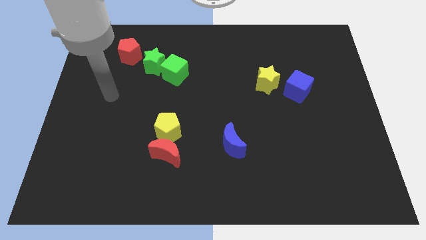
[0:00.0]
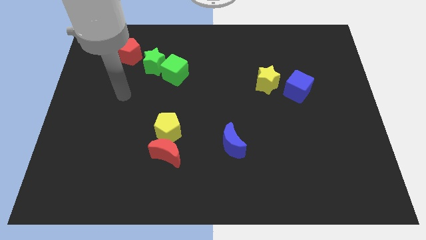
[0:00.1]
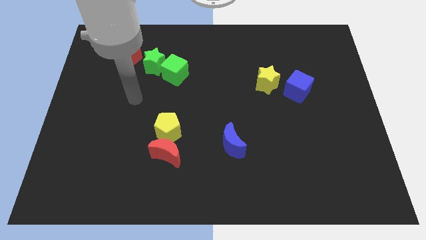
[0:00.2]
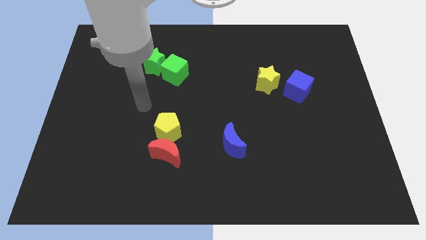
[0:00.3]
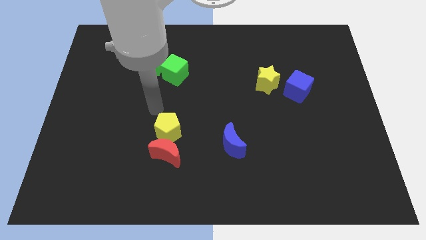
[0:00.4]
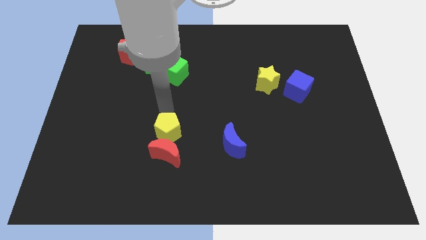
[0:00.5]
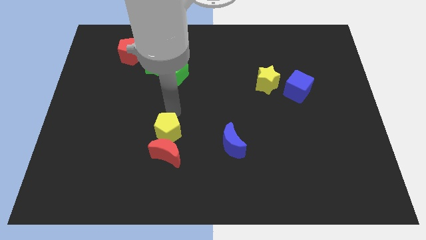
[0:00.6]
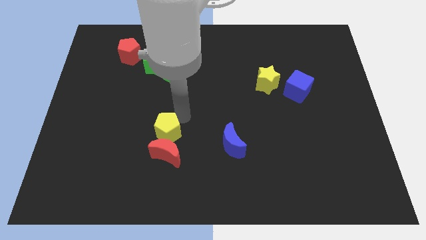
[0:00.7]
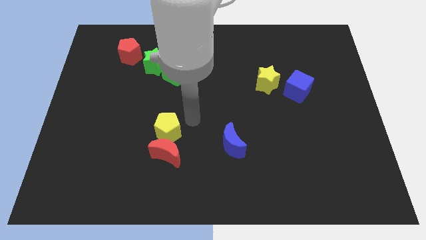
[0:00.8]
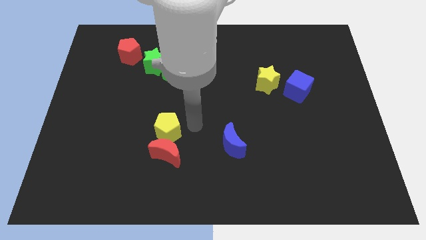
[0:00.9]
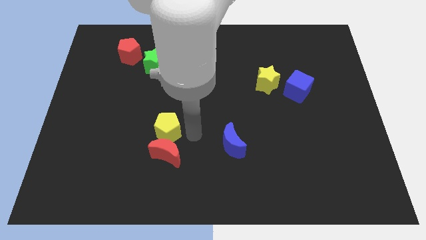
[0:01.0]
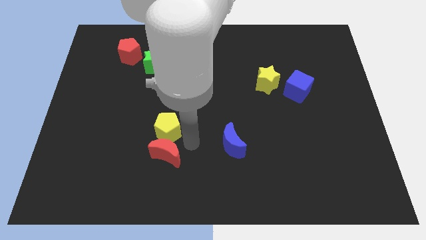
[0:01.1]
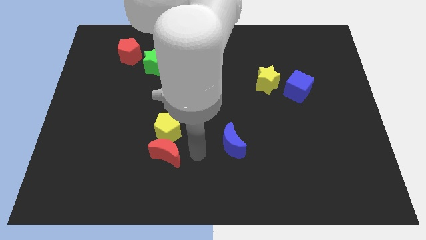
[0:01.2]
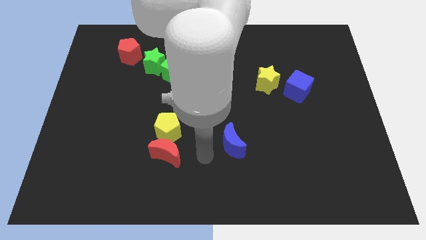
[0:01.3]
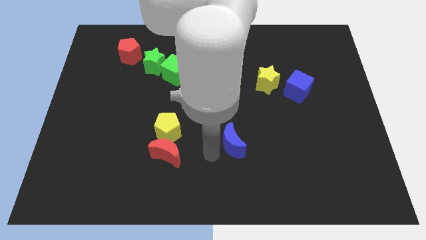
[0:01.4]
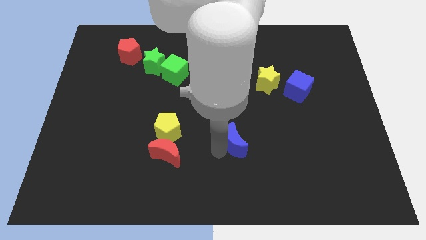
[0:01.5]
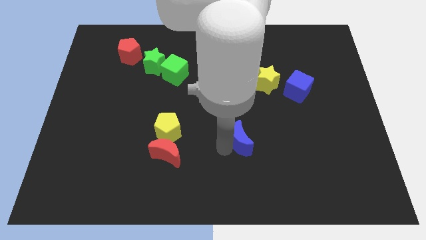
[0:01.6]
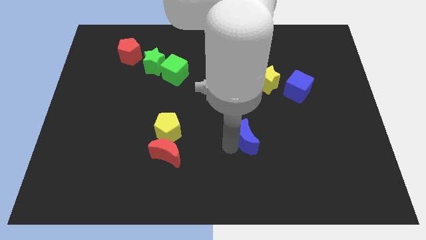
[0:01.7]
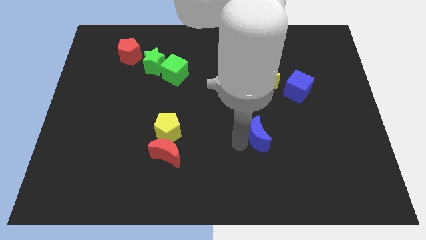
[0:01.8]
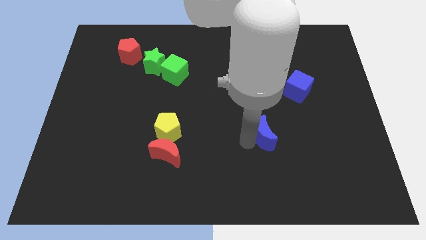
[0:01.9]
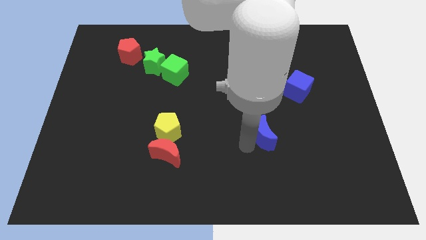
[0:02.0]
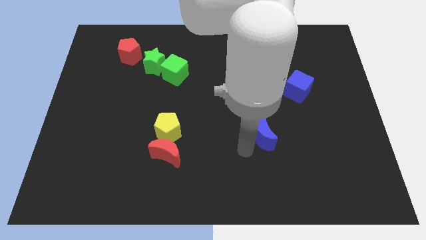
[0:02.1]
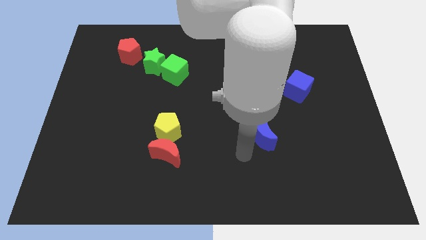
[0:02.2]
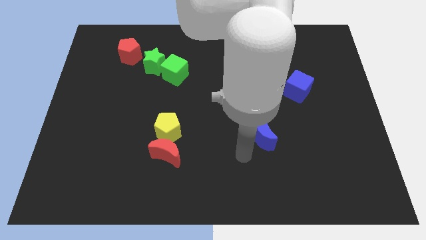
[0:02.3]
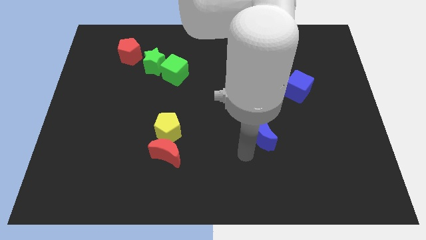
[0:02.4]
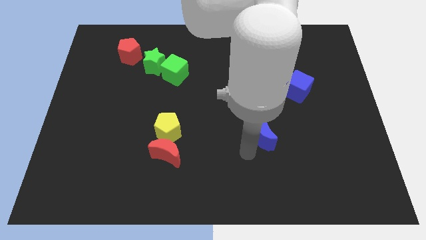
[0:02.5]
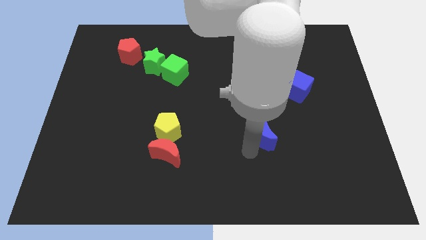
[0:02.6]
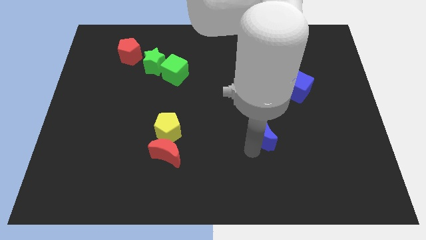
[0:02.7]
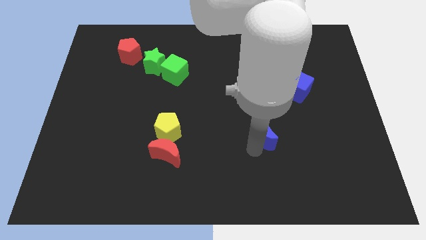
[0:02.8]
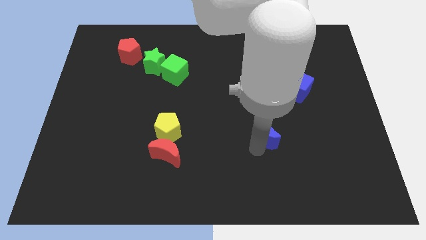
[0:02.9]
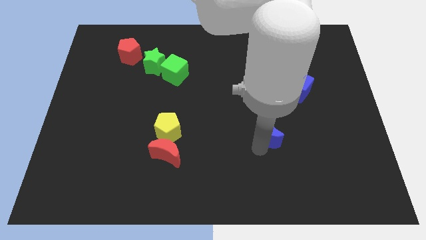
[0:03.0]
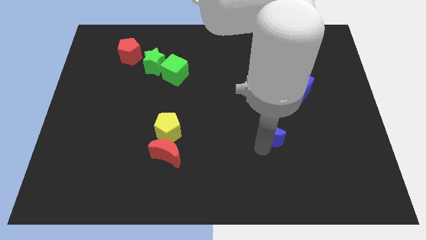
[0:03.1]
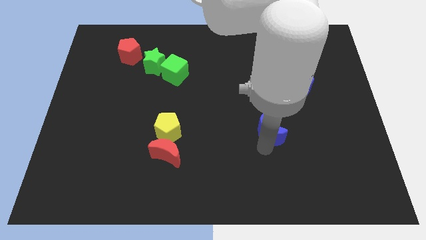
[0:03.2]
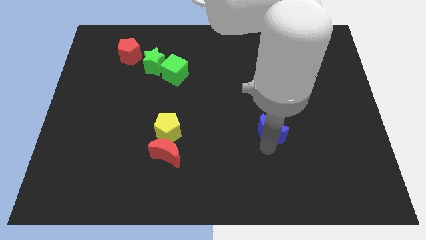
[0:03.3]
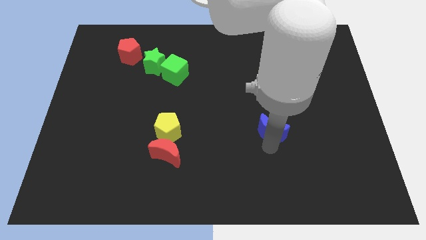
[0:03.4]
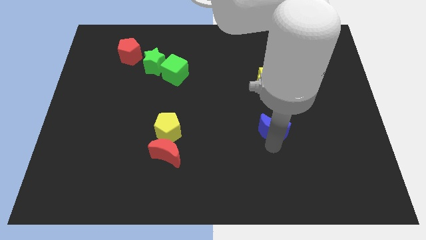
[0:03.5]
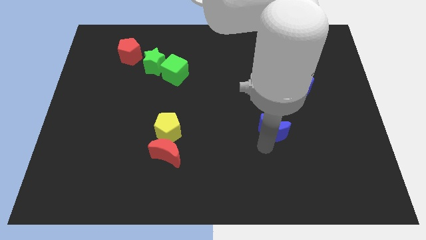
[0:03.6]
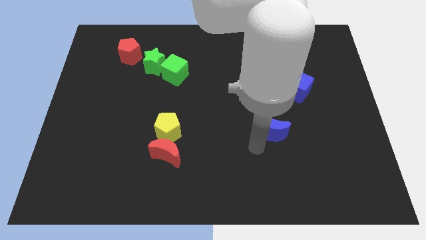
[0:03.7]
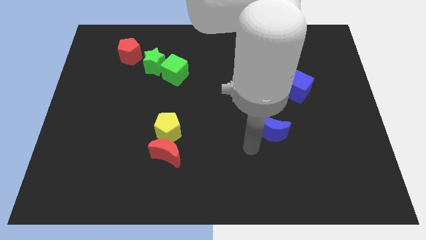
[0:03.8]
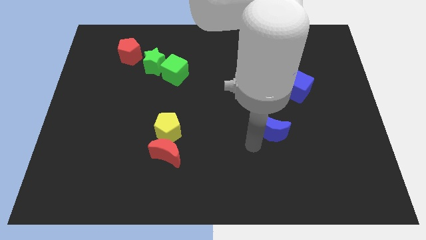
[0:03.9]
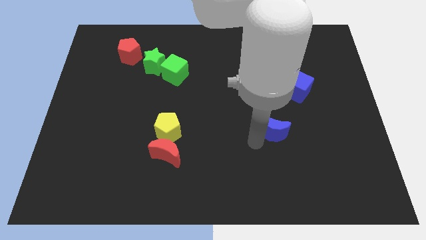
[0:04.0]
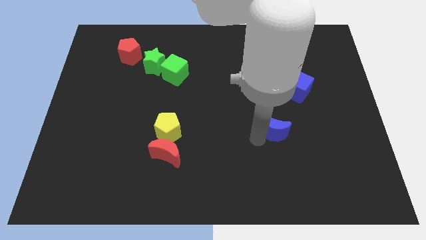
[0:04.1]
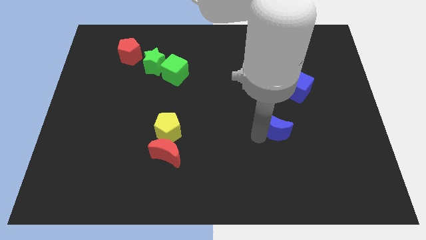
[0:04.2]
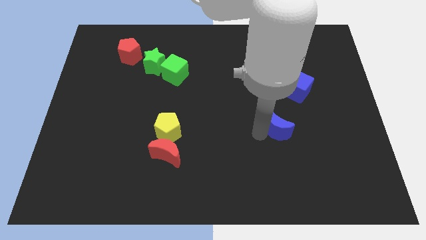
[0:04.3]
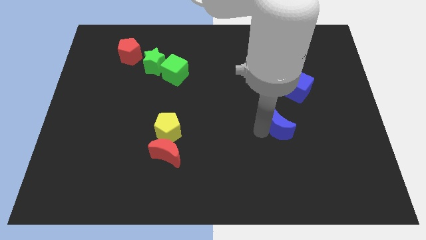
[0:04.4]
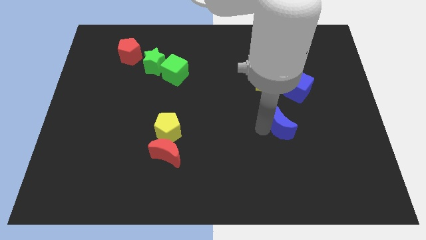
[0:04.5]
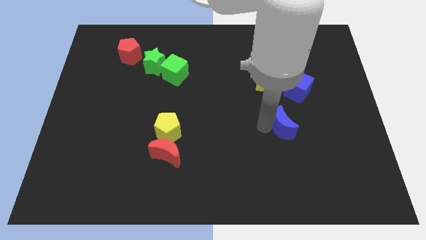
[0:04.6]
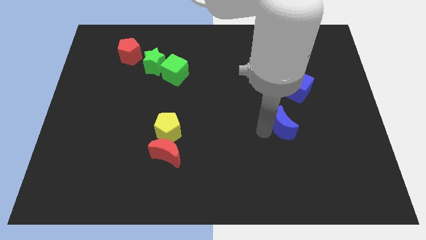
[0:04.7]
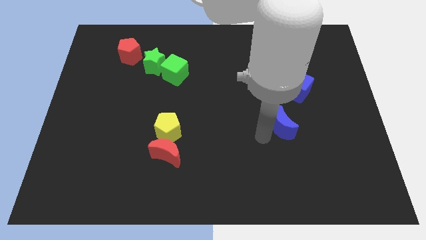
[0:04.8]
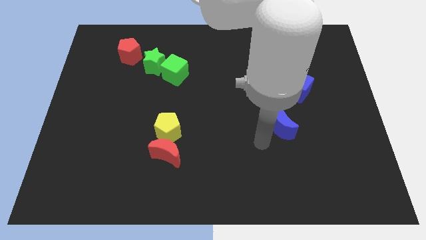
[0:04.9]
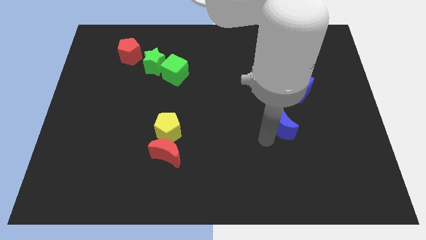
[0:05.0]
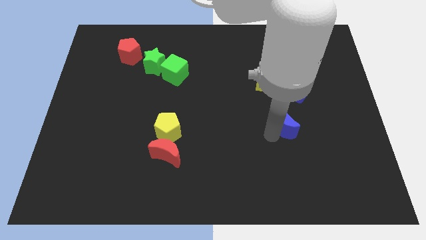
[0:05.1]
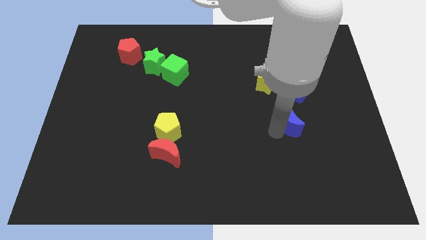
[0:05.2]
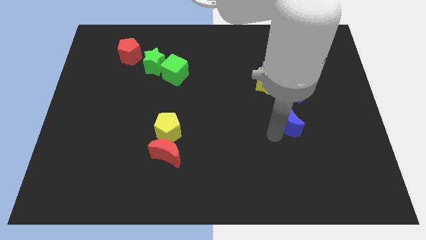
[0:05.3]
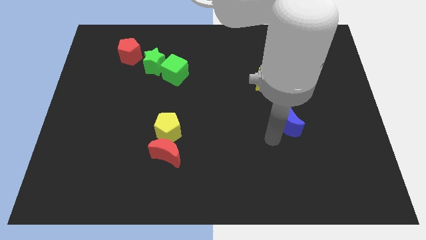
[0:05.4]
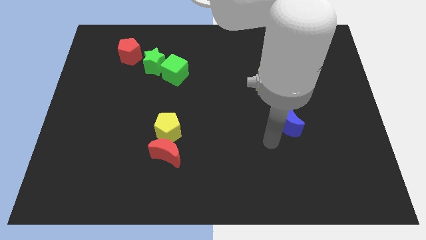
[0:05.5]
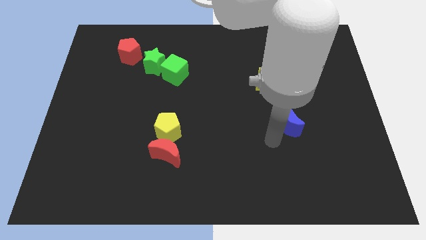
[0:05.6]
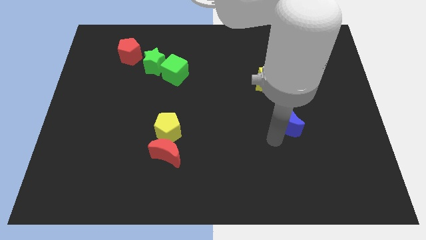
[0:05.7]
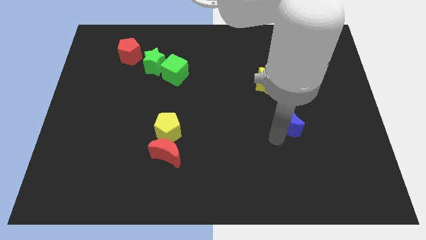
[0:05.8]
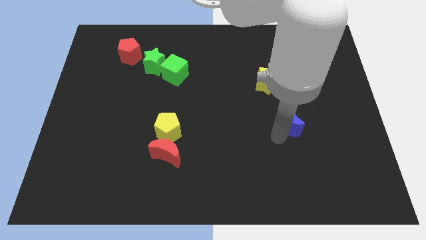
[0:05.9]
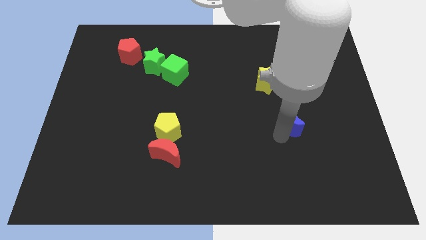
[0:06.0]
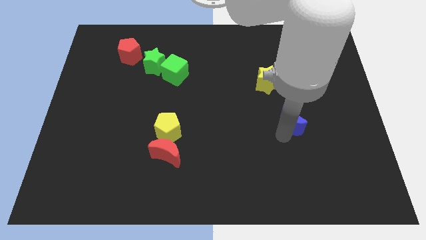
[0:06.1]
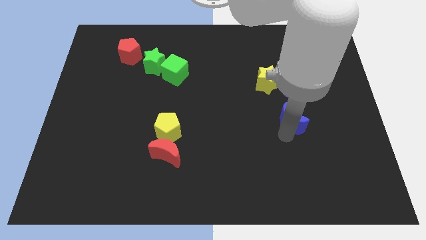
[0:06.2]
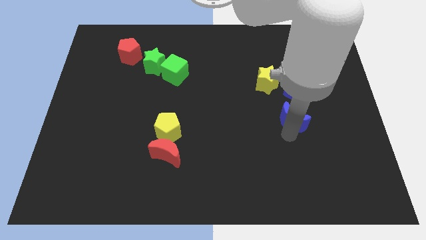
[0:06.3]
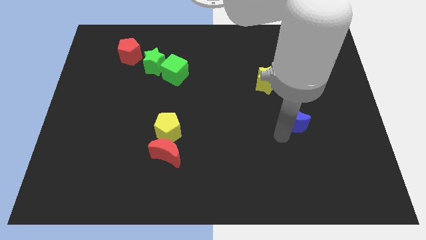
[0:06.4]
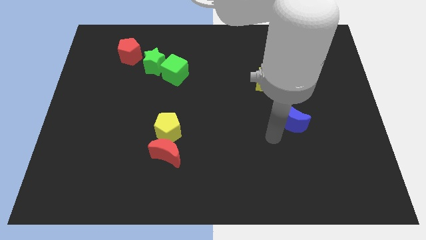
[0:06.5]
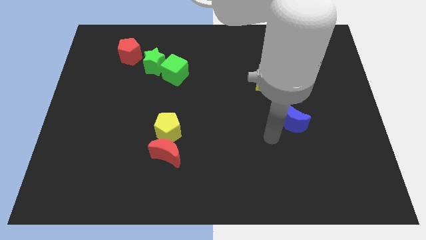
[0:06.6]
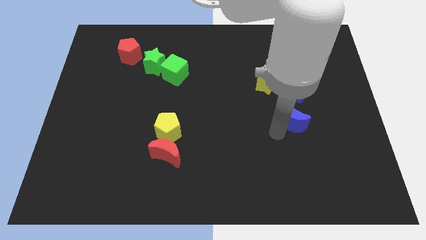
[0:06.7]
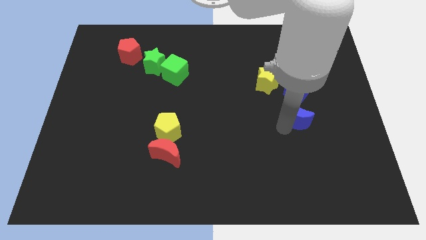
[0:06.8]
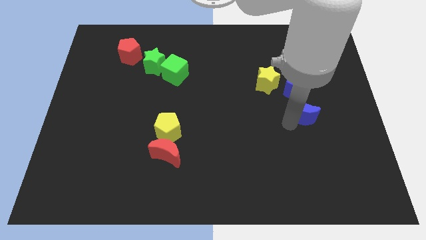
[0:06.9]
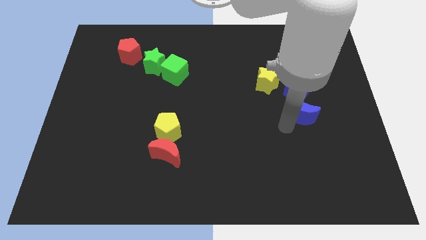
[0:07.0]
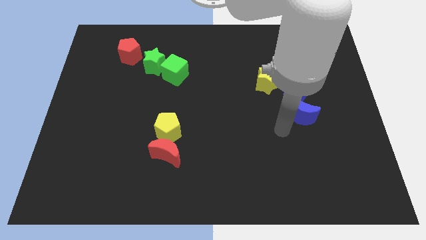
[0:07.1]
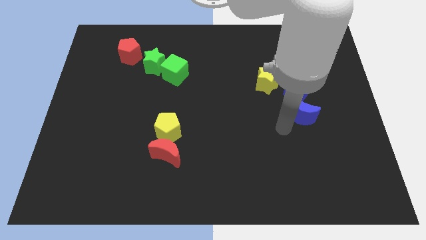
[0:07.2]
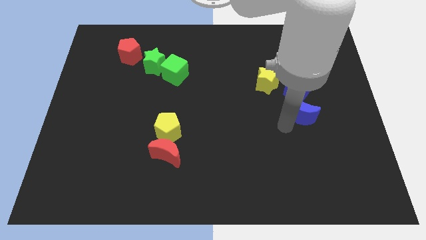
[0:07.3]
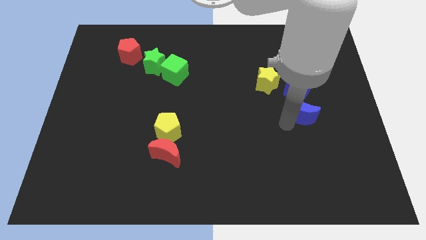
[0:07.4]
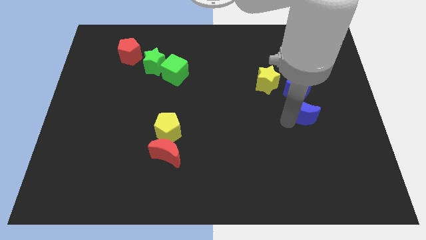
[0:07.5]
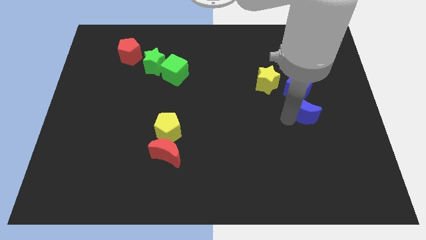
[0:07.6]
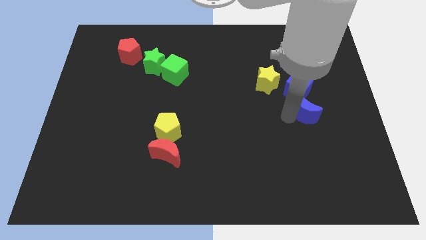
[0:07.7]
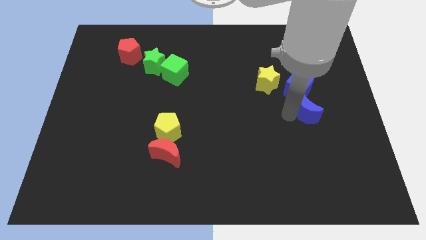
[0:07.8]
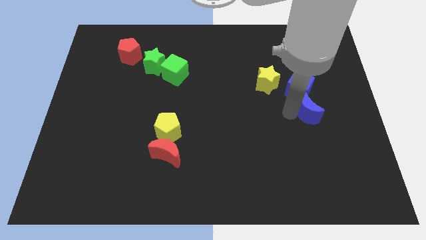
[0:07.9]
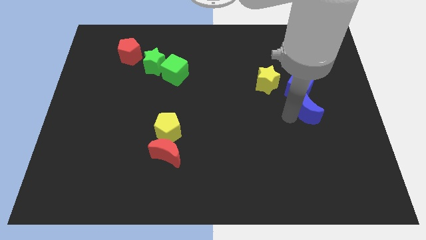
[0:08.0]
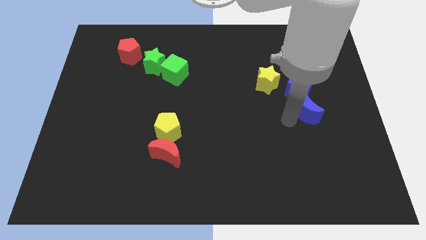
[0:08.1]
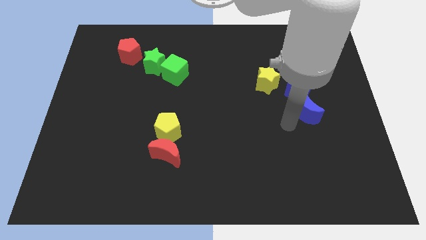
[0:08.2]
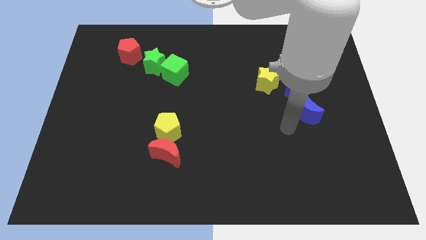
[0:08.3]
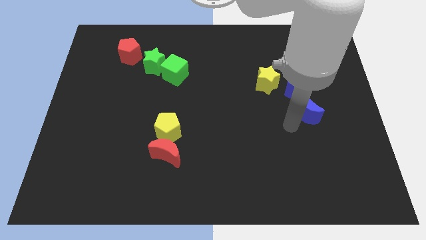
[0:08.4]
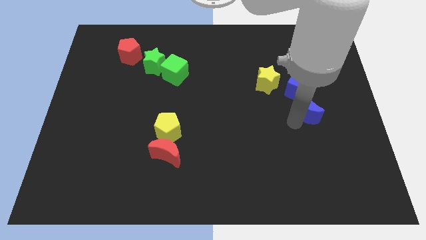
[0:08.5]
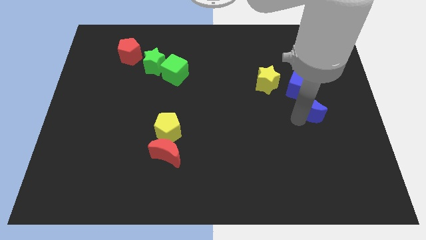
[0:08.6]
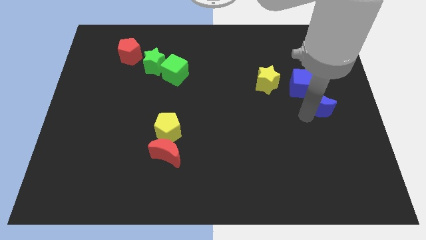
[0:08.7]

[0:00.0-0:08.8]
slide the blue moon up and then to the right

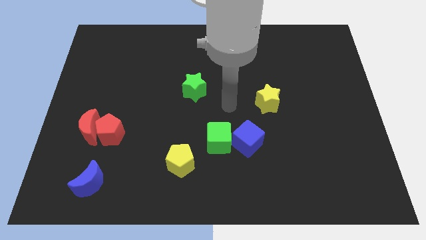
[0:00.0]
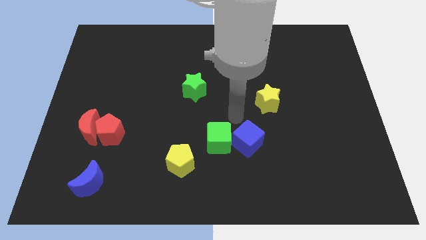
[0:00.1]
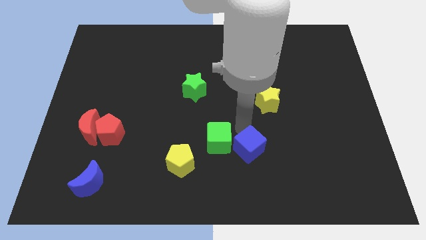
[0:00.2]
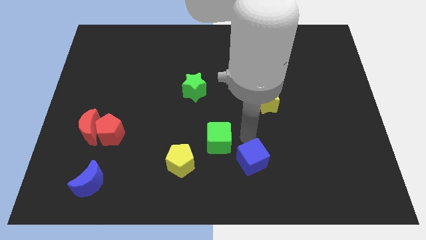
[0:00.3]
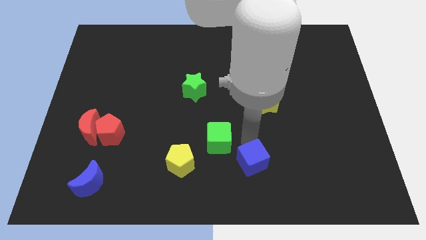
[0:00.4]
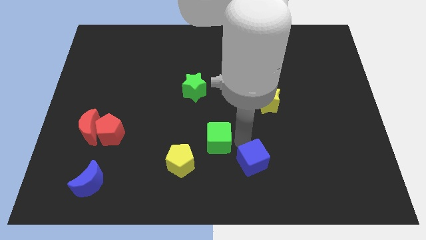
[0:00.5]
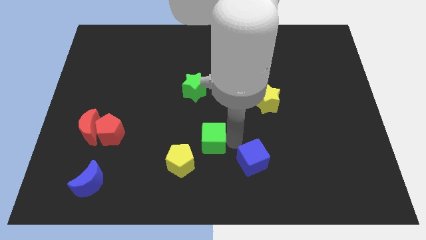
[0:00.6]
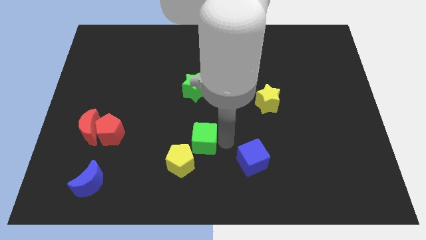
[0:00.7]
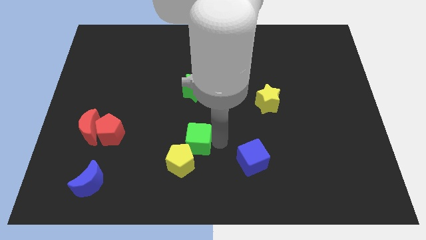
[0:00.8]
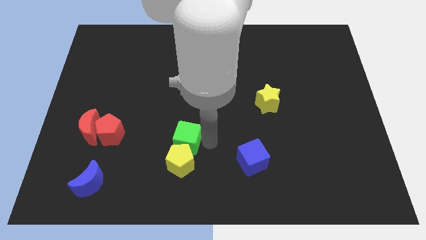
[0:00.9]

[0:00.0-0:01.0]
slightly slide the green cube to the left
